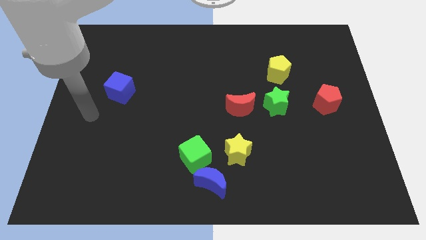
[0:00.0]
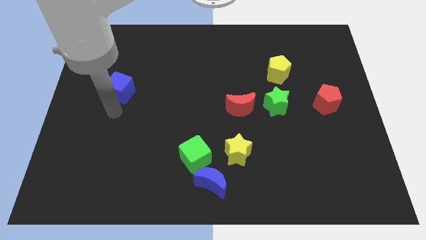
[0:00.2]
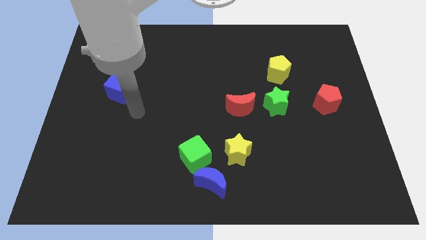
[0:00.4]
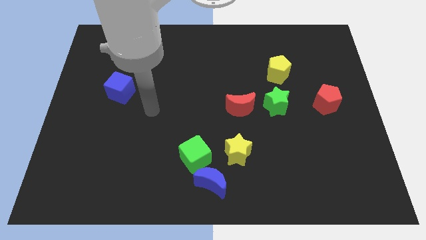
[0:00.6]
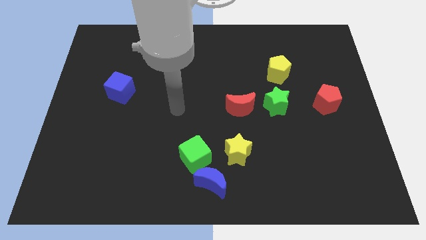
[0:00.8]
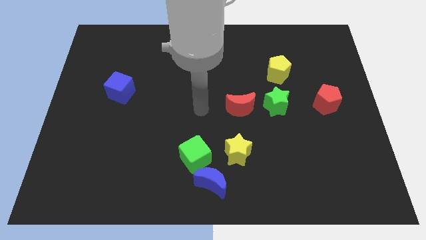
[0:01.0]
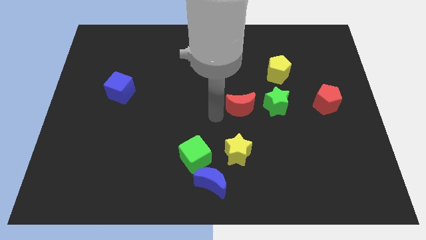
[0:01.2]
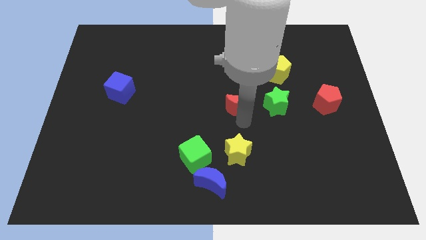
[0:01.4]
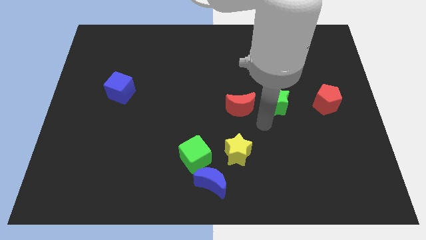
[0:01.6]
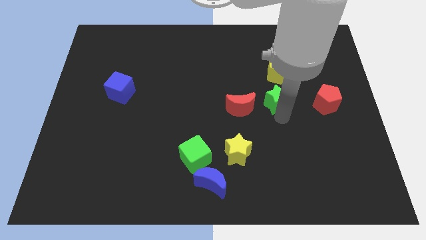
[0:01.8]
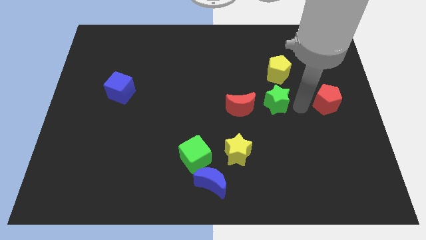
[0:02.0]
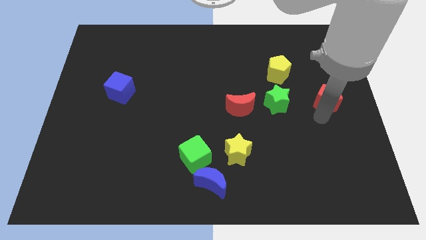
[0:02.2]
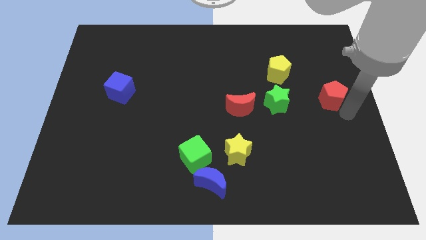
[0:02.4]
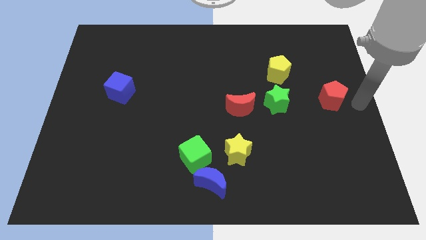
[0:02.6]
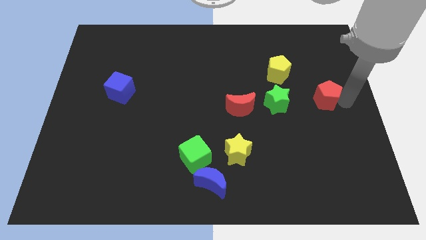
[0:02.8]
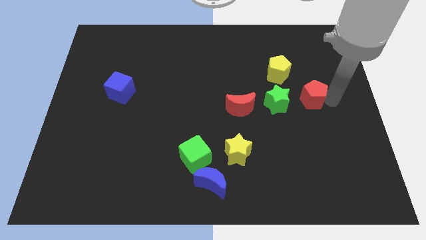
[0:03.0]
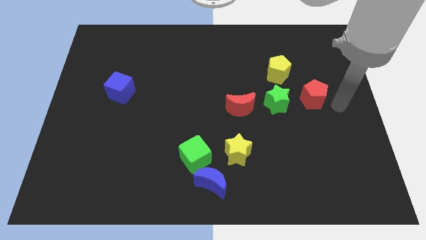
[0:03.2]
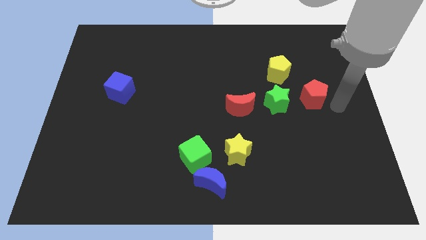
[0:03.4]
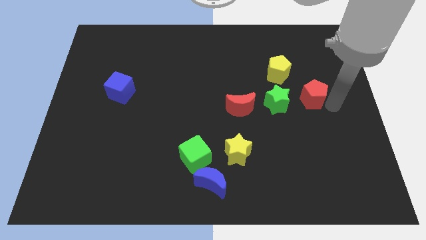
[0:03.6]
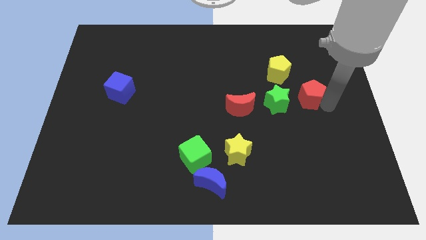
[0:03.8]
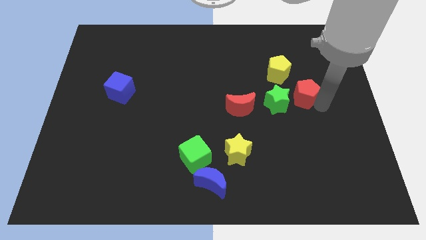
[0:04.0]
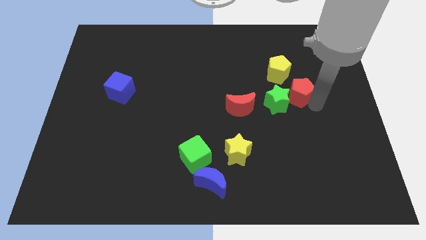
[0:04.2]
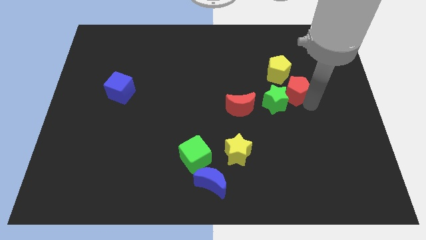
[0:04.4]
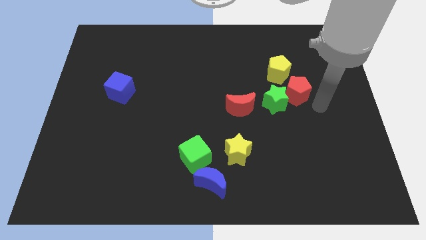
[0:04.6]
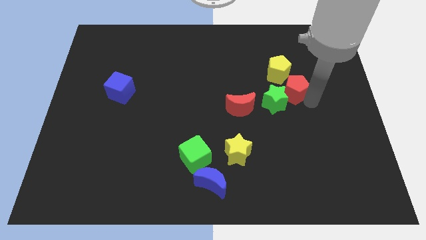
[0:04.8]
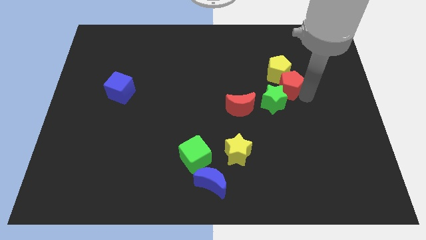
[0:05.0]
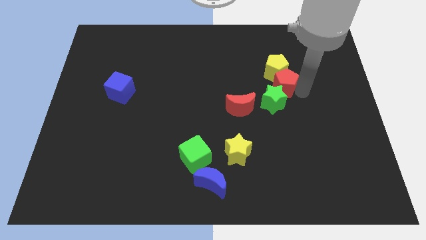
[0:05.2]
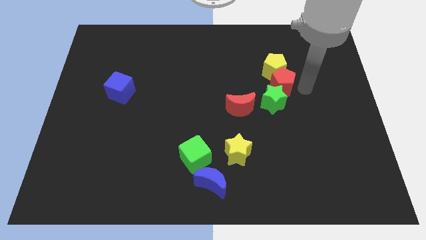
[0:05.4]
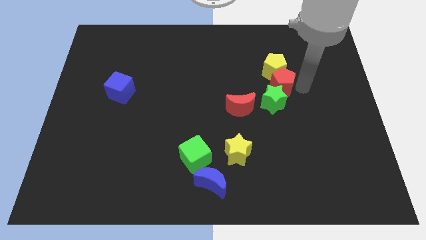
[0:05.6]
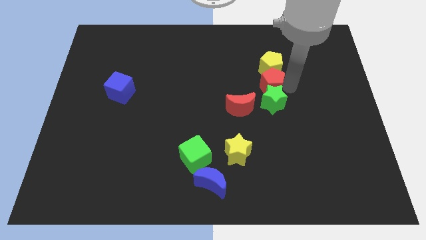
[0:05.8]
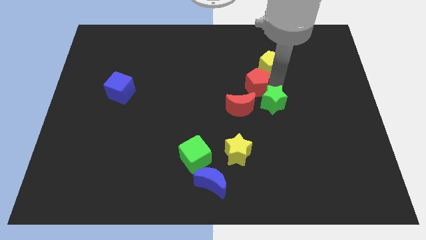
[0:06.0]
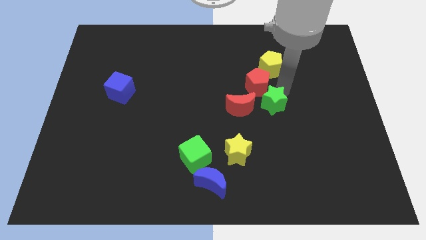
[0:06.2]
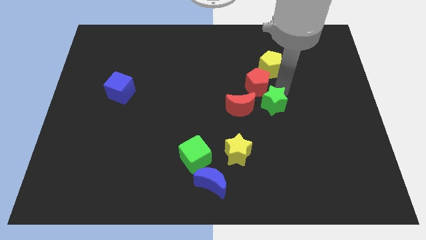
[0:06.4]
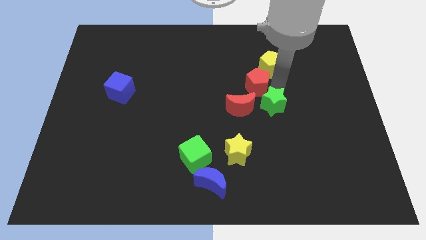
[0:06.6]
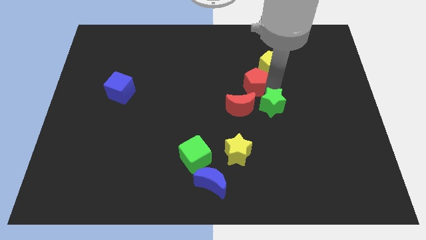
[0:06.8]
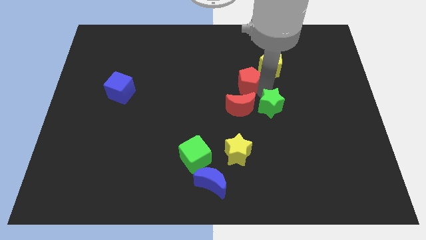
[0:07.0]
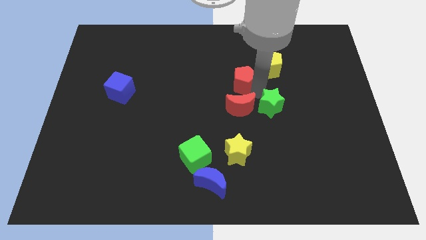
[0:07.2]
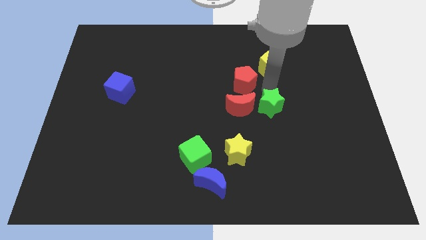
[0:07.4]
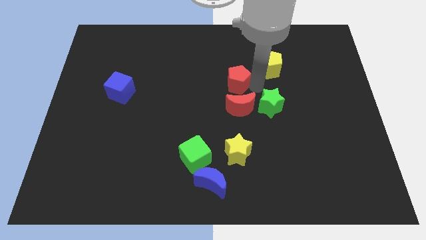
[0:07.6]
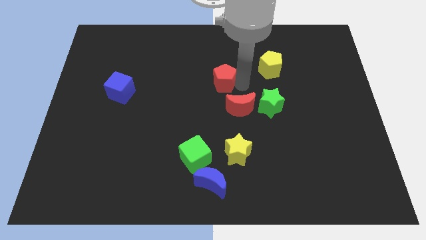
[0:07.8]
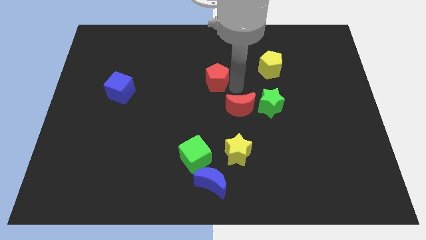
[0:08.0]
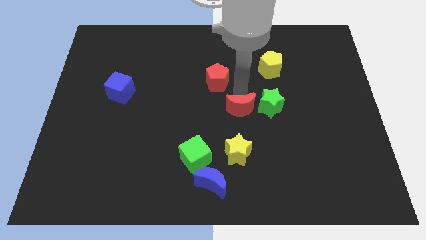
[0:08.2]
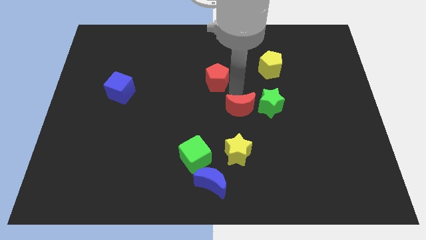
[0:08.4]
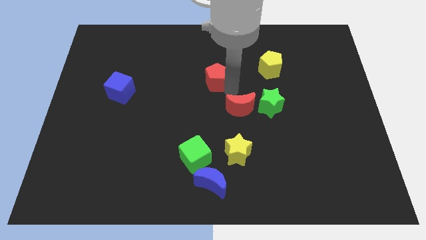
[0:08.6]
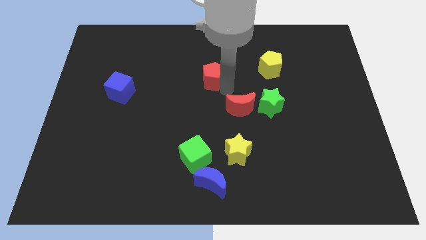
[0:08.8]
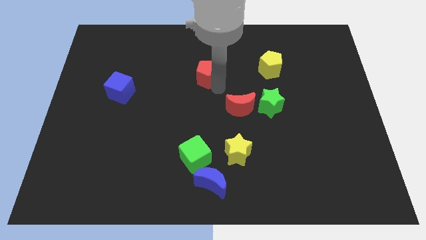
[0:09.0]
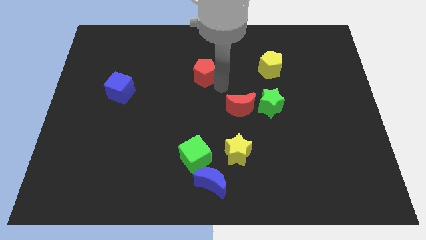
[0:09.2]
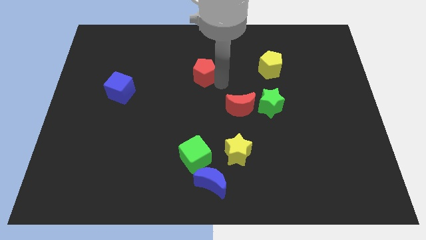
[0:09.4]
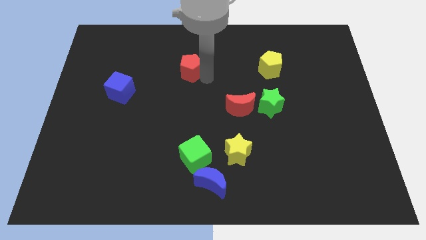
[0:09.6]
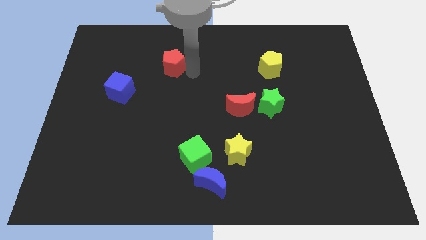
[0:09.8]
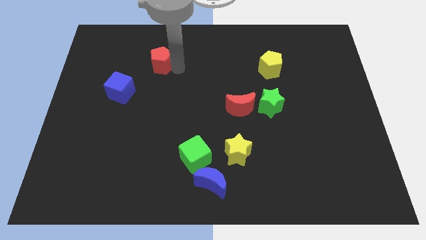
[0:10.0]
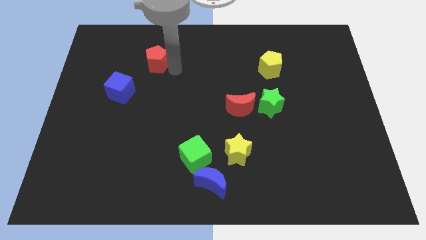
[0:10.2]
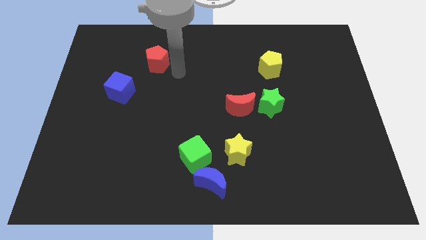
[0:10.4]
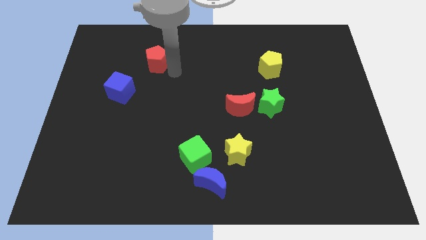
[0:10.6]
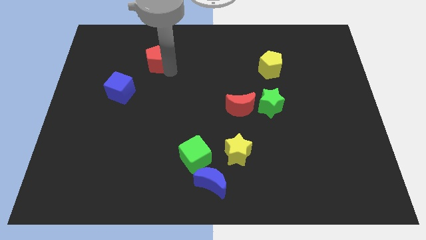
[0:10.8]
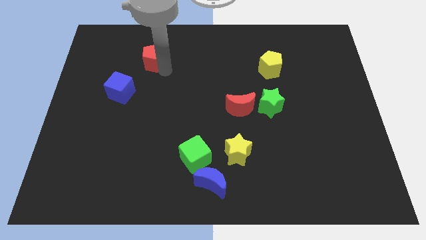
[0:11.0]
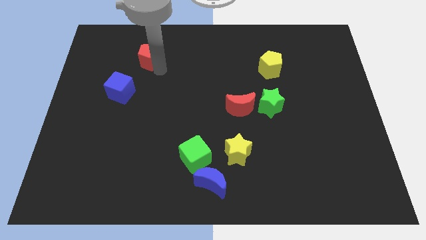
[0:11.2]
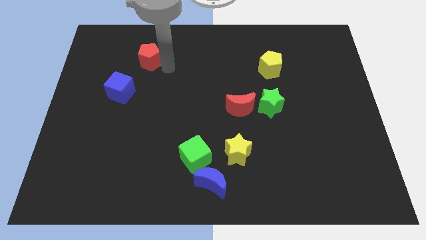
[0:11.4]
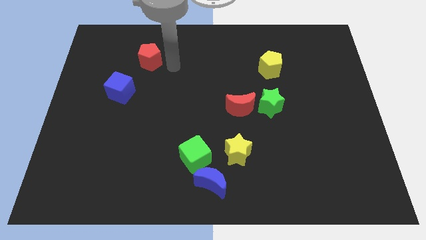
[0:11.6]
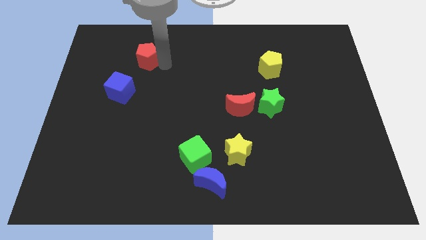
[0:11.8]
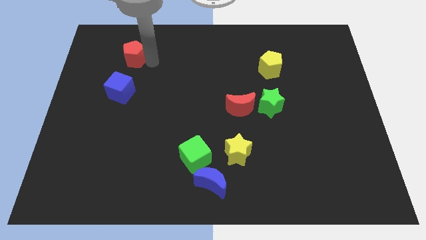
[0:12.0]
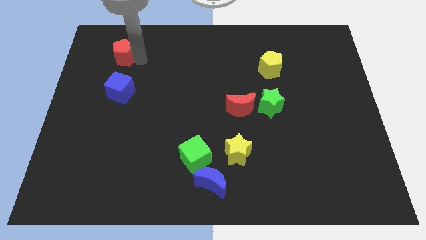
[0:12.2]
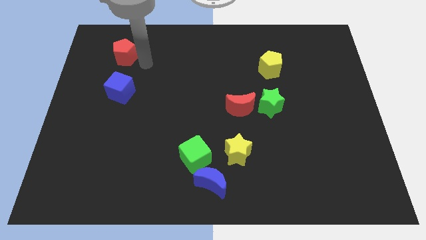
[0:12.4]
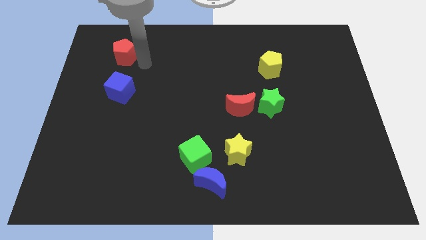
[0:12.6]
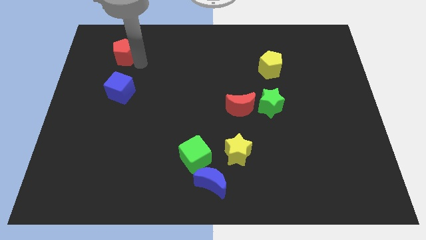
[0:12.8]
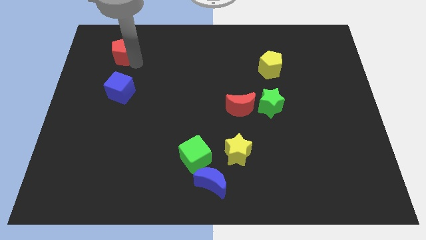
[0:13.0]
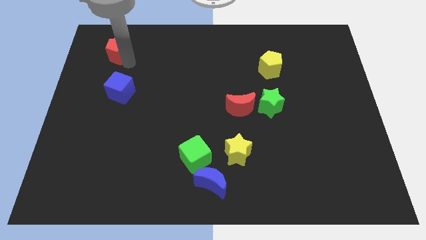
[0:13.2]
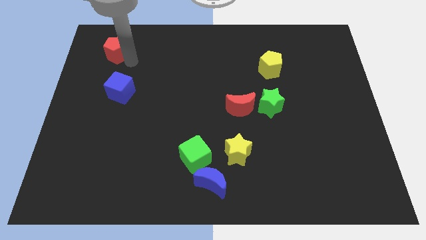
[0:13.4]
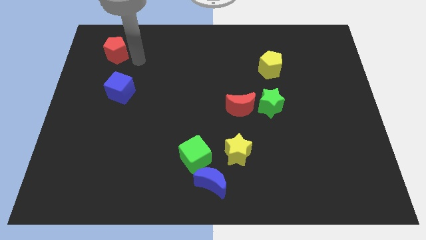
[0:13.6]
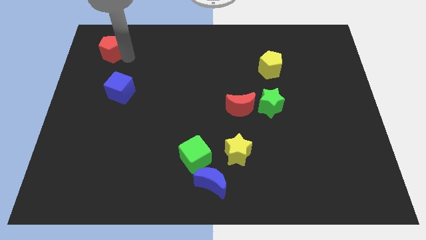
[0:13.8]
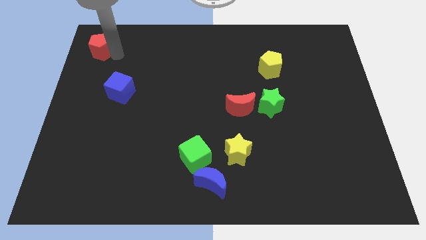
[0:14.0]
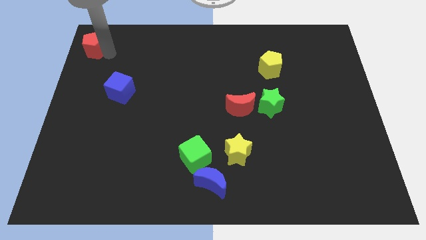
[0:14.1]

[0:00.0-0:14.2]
slide the red pentagon to the top left of the board

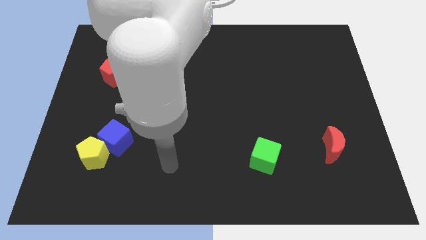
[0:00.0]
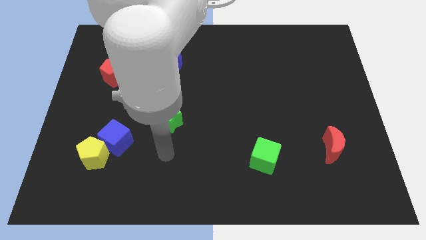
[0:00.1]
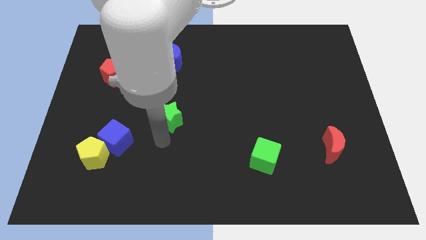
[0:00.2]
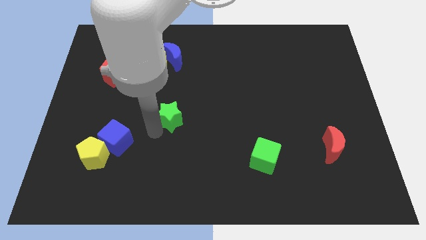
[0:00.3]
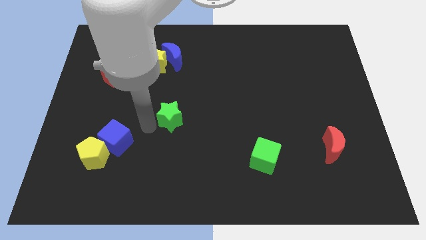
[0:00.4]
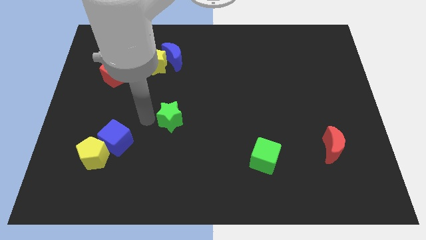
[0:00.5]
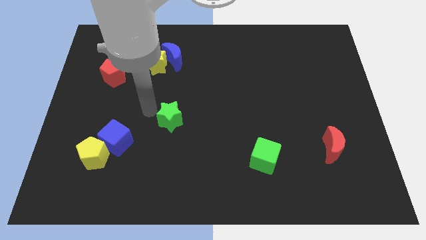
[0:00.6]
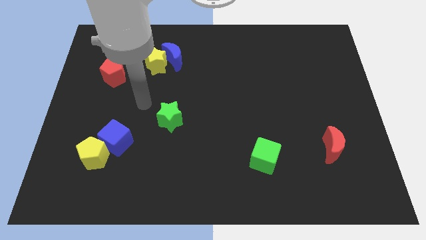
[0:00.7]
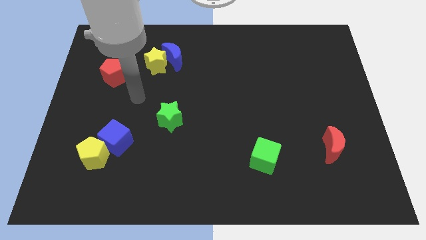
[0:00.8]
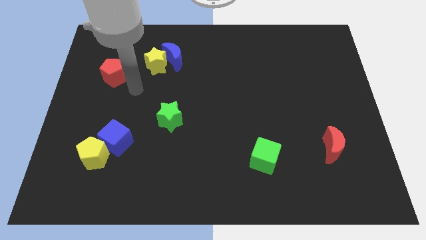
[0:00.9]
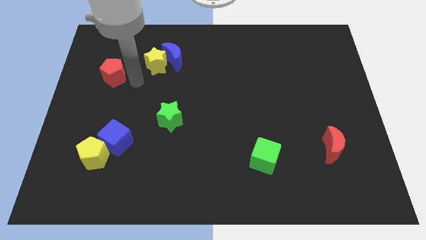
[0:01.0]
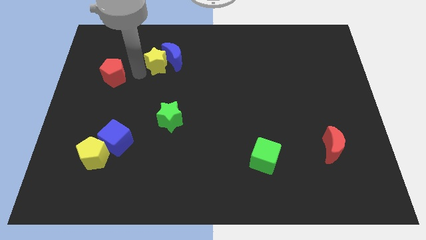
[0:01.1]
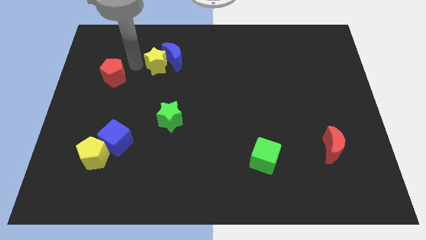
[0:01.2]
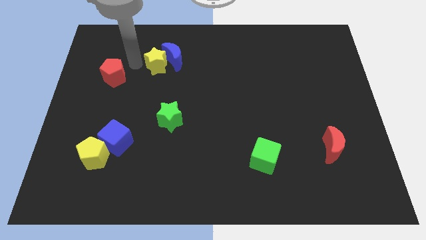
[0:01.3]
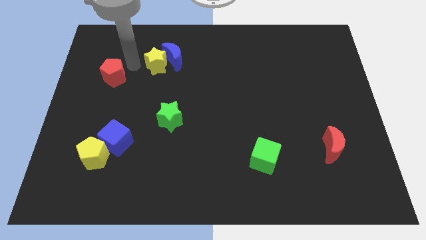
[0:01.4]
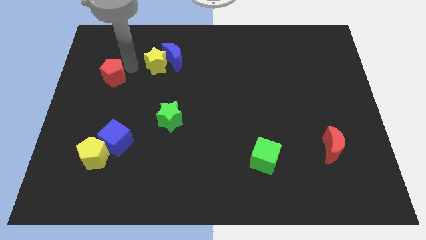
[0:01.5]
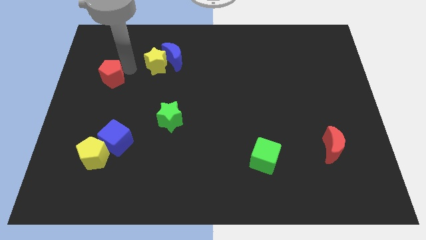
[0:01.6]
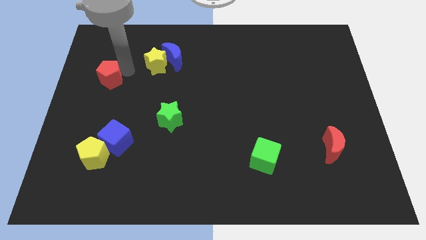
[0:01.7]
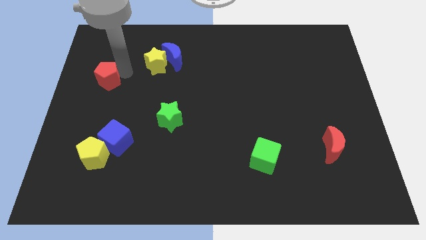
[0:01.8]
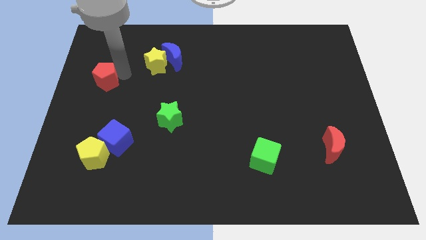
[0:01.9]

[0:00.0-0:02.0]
put the red pentagon to the left side of the board
